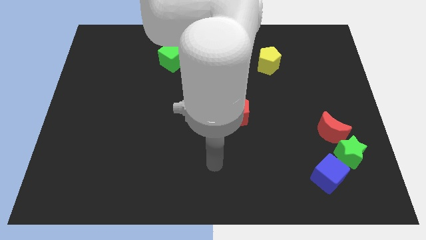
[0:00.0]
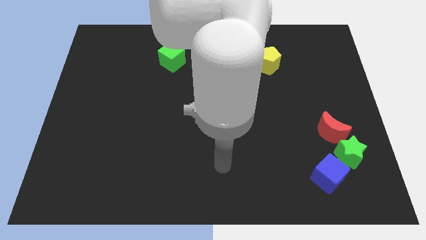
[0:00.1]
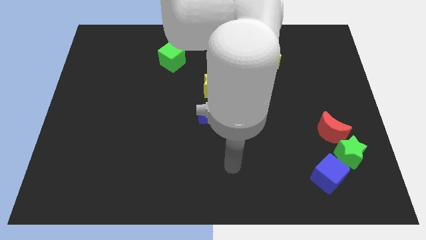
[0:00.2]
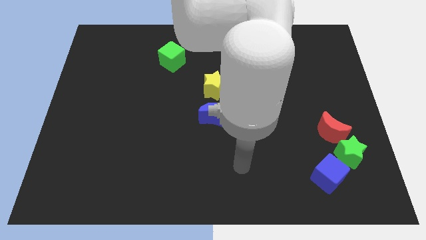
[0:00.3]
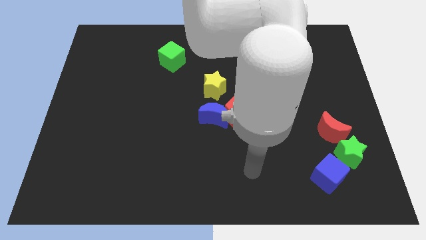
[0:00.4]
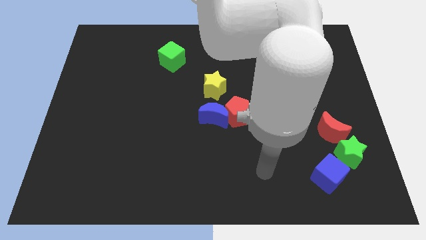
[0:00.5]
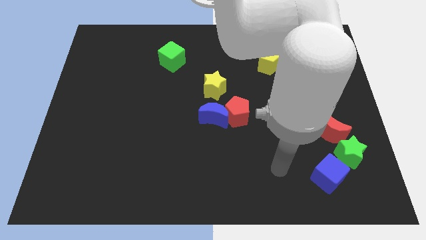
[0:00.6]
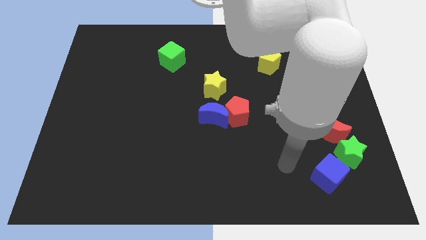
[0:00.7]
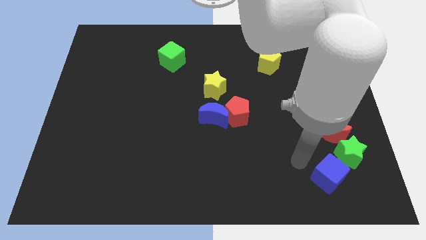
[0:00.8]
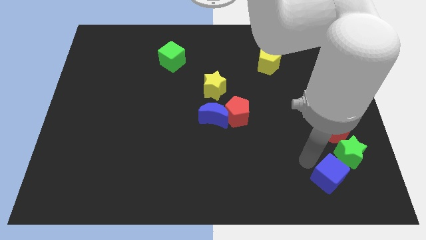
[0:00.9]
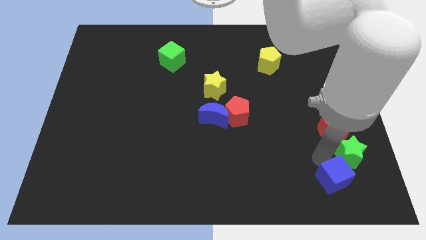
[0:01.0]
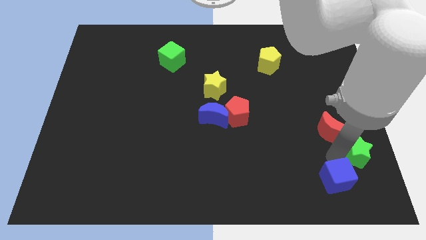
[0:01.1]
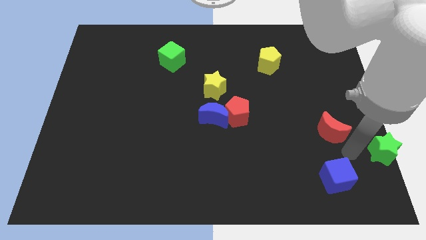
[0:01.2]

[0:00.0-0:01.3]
move the red moon away from the green star

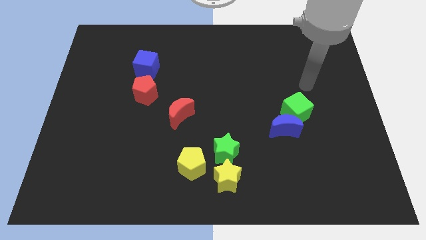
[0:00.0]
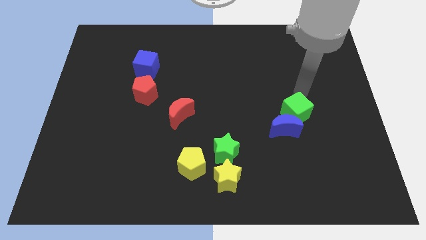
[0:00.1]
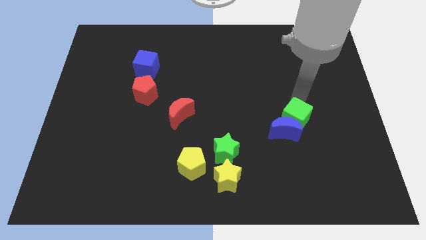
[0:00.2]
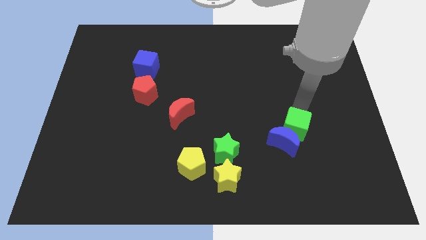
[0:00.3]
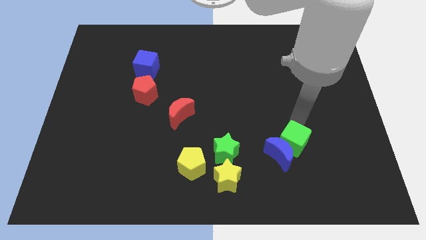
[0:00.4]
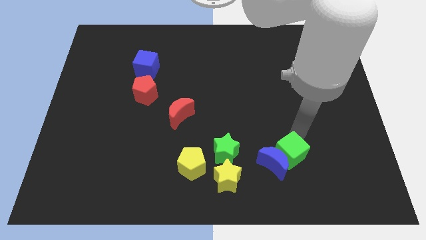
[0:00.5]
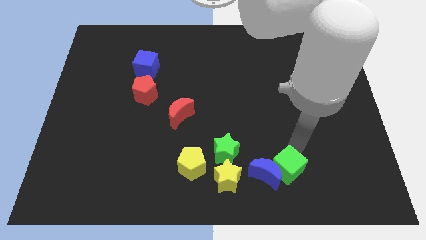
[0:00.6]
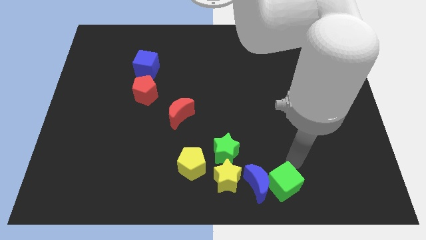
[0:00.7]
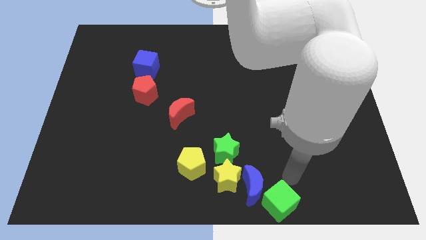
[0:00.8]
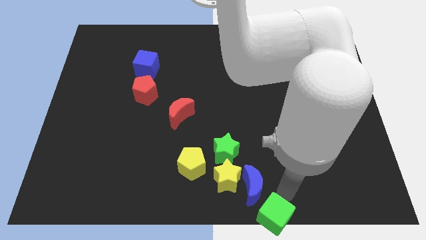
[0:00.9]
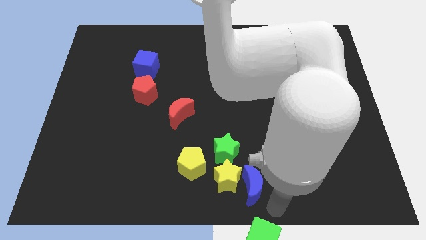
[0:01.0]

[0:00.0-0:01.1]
pull the blue moon apart from the green cube

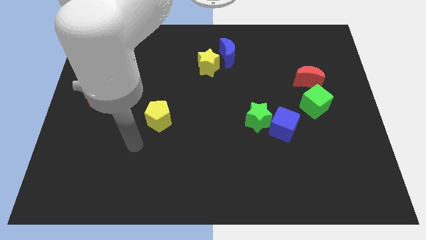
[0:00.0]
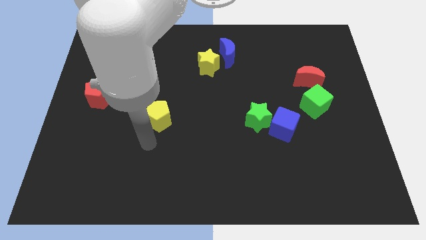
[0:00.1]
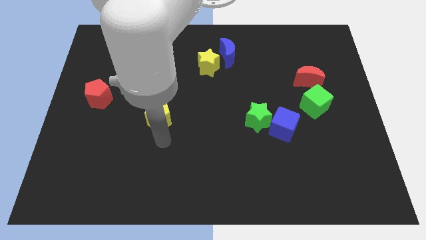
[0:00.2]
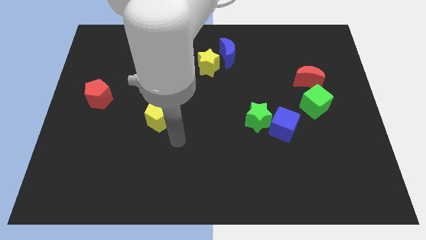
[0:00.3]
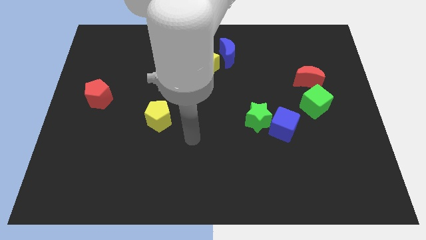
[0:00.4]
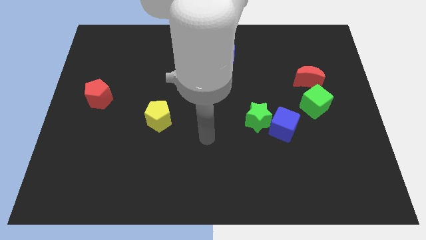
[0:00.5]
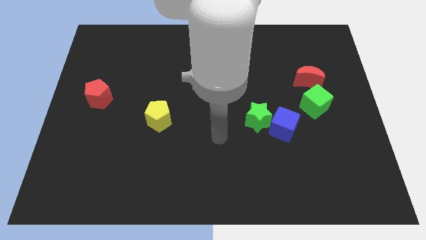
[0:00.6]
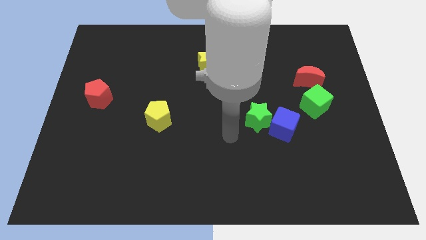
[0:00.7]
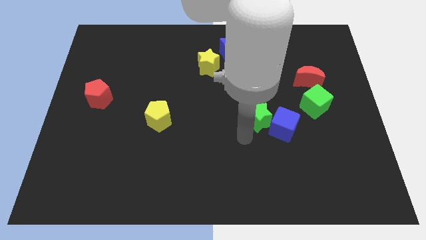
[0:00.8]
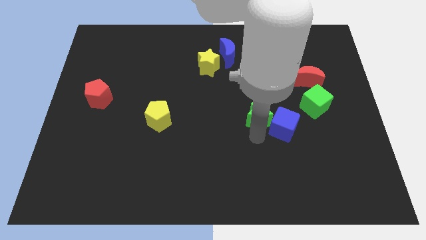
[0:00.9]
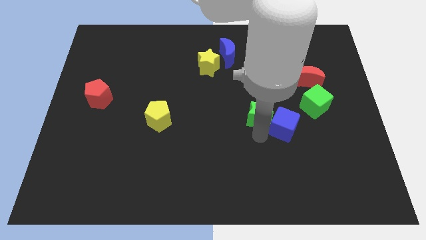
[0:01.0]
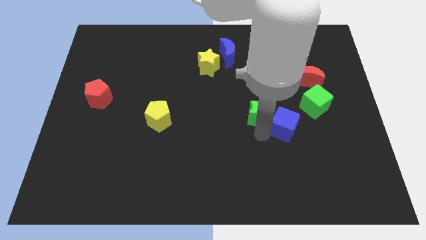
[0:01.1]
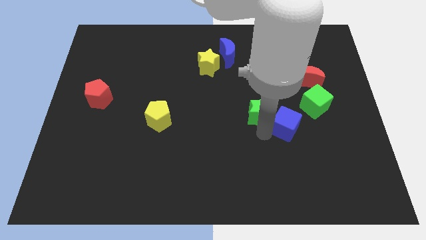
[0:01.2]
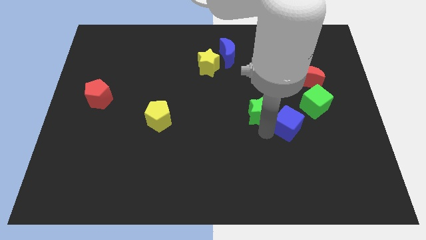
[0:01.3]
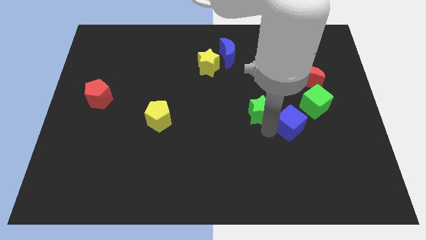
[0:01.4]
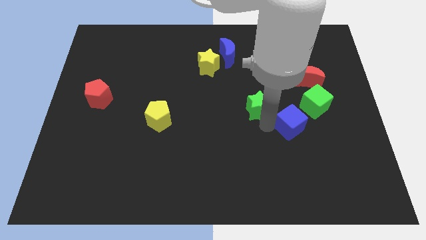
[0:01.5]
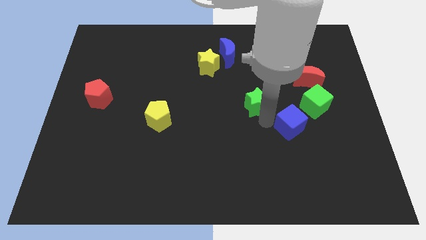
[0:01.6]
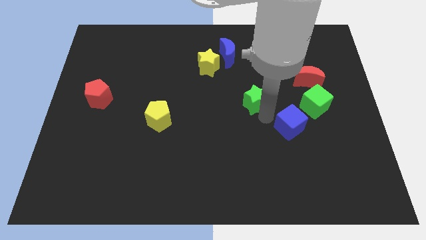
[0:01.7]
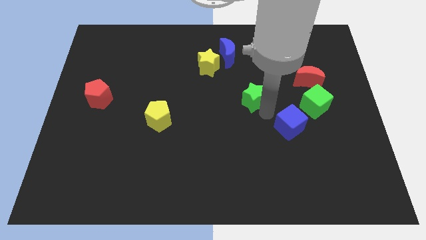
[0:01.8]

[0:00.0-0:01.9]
separate the blue cube from the green star

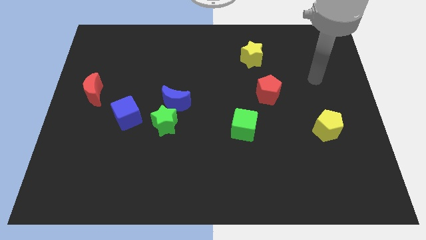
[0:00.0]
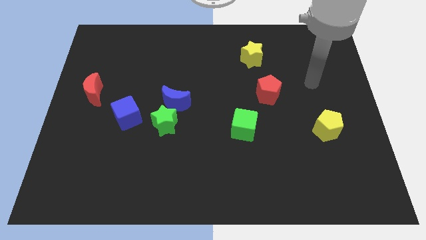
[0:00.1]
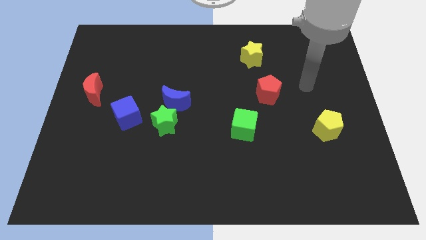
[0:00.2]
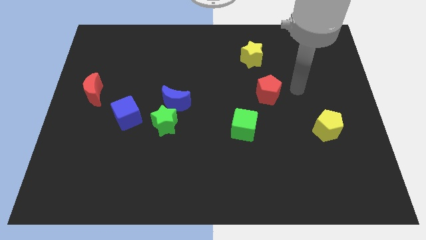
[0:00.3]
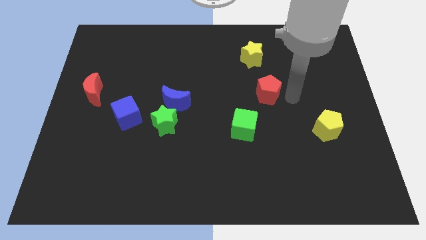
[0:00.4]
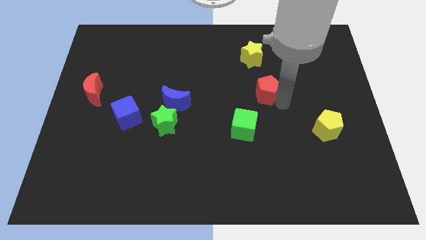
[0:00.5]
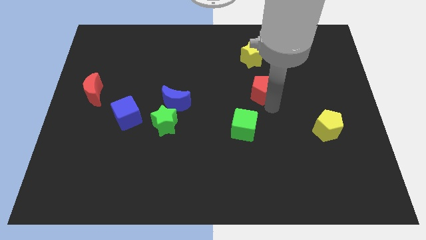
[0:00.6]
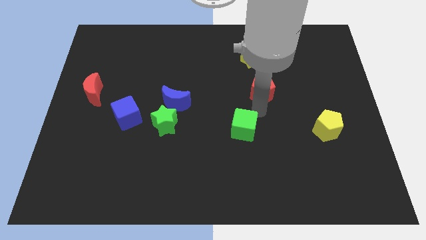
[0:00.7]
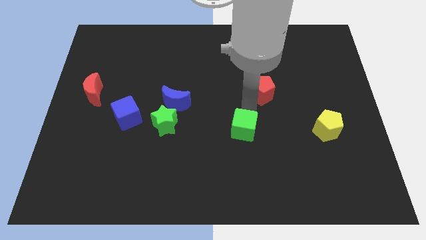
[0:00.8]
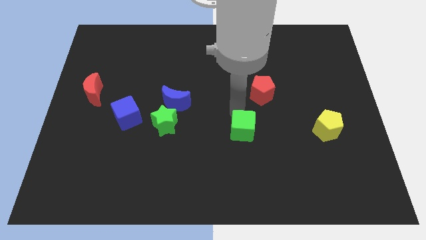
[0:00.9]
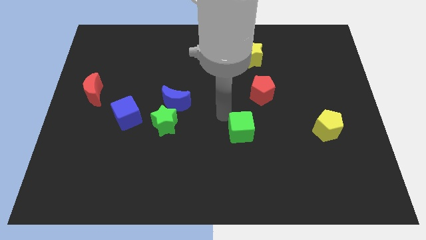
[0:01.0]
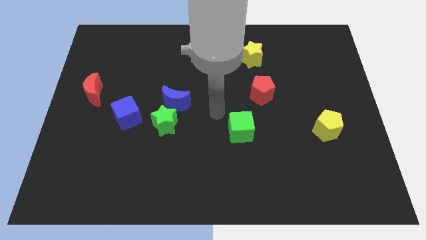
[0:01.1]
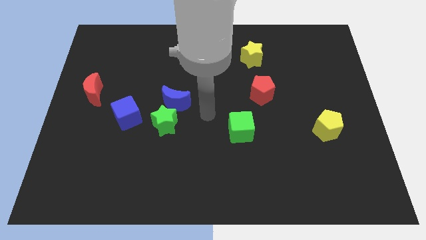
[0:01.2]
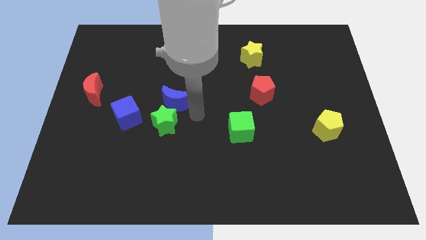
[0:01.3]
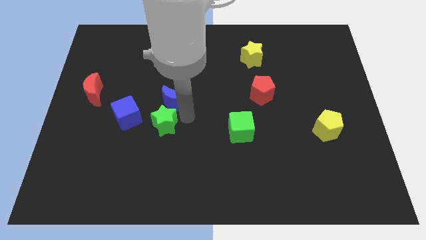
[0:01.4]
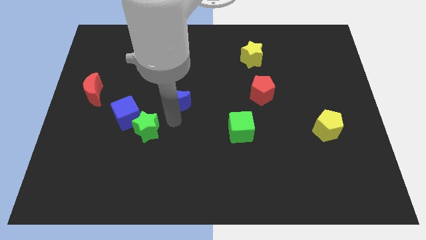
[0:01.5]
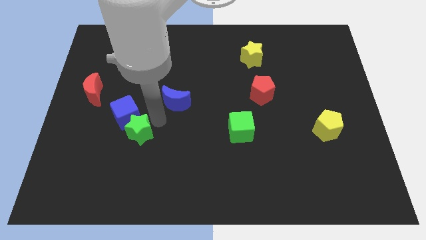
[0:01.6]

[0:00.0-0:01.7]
pull the blue moon apart from the green star

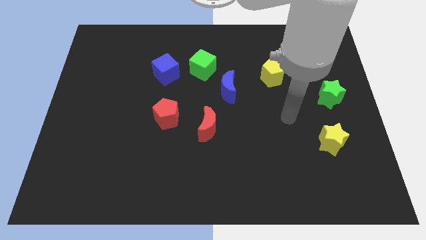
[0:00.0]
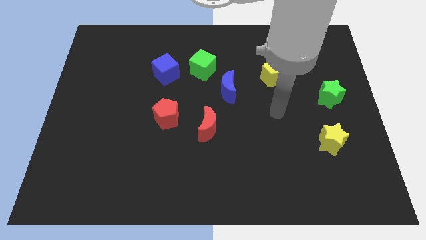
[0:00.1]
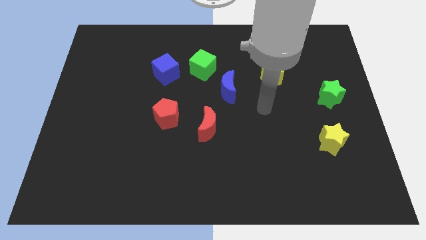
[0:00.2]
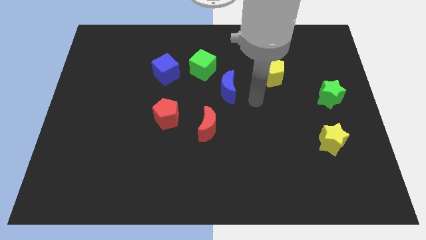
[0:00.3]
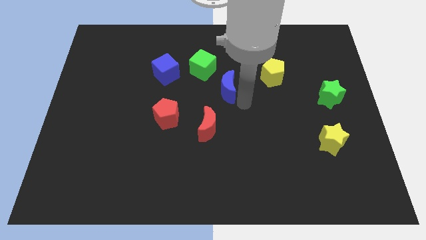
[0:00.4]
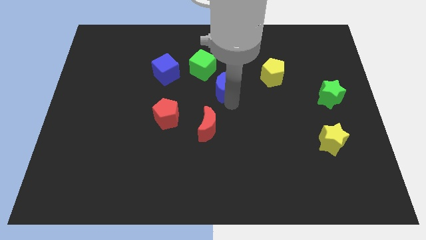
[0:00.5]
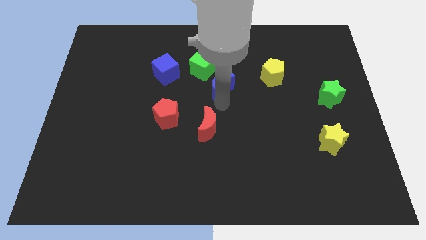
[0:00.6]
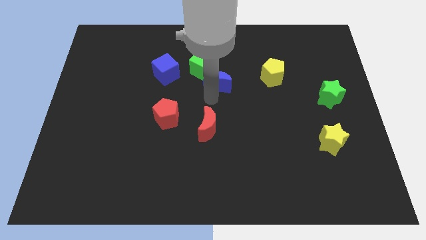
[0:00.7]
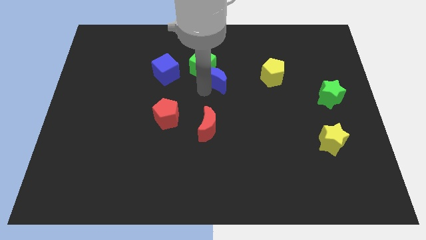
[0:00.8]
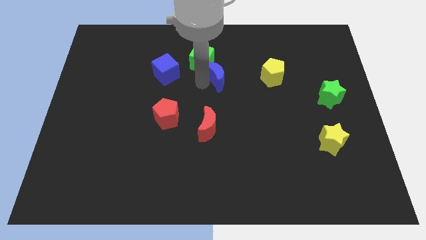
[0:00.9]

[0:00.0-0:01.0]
pull the blue cube apart from the green cube

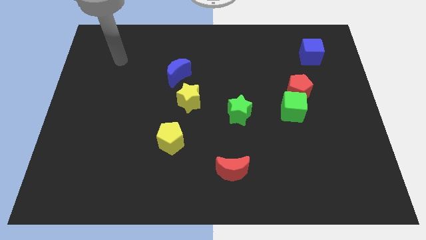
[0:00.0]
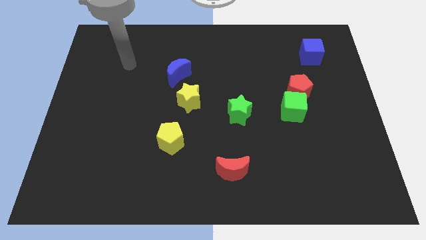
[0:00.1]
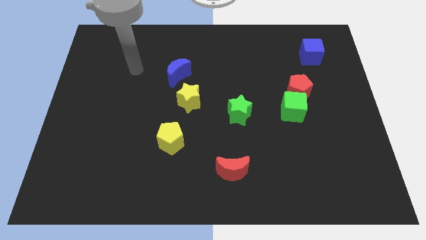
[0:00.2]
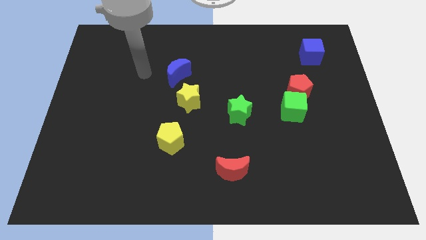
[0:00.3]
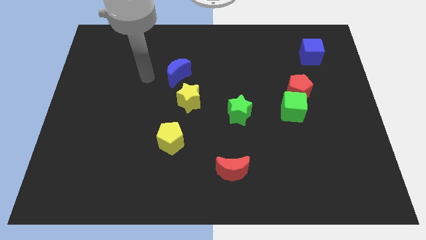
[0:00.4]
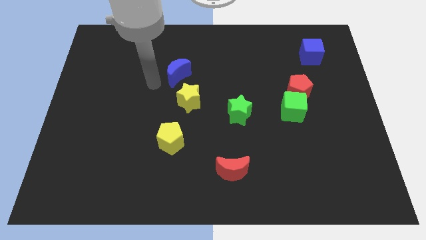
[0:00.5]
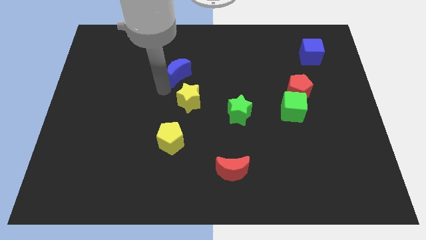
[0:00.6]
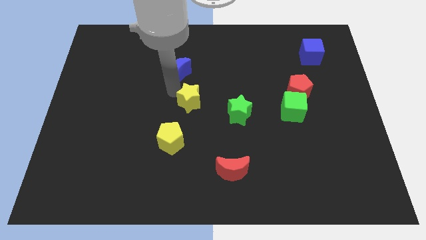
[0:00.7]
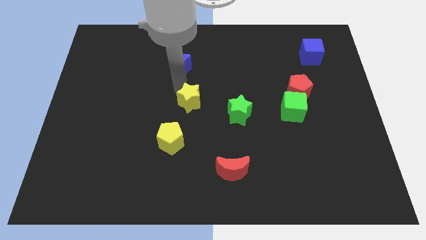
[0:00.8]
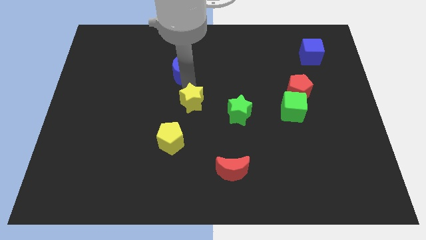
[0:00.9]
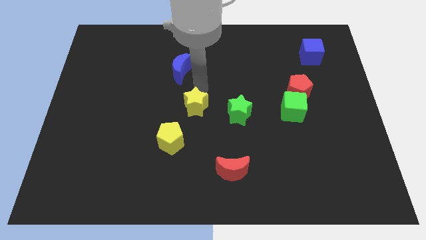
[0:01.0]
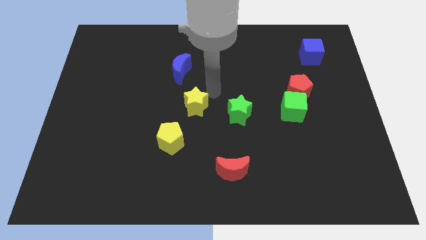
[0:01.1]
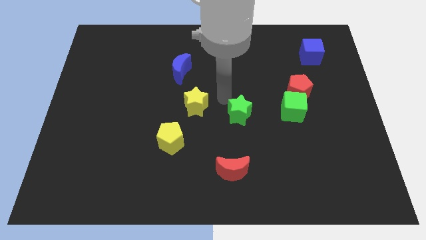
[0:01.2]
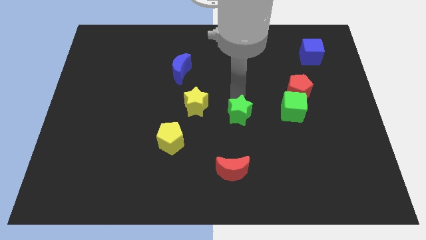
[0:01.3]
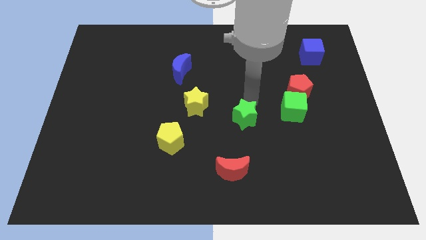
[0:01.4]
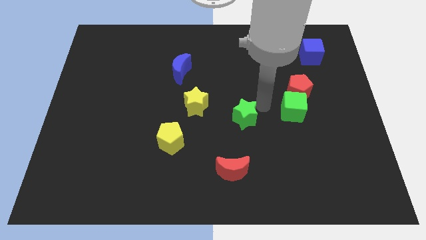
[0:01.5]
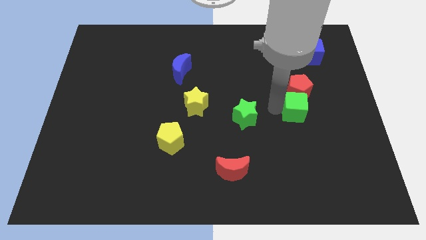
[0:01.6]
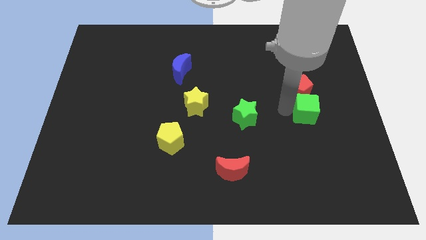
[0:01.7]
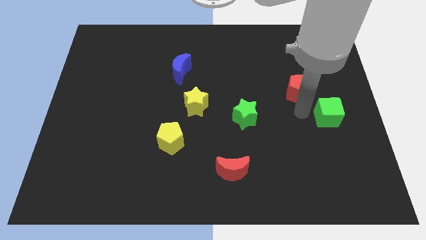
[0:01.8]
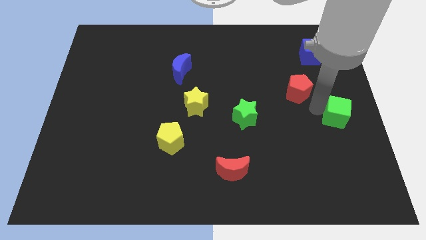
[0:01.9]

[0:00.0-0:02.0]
separate the red pentagon from the green cube

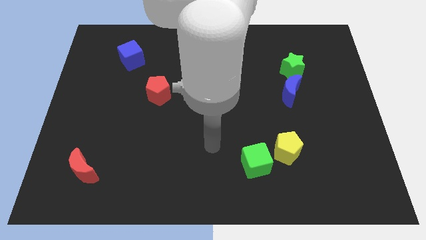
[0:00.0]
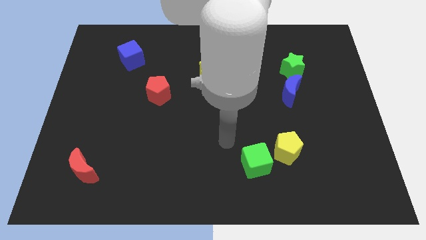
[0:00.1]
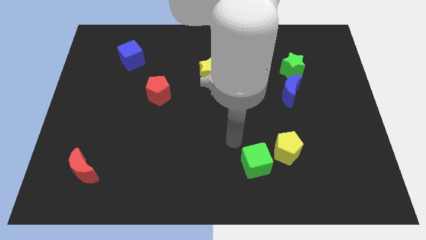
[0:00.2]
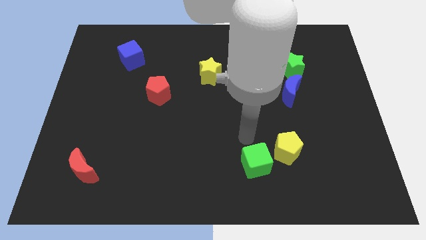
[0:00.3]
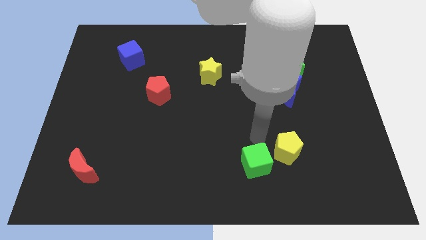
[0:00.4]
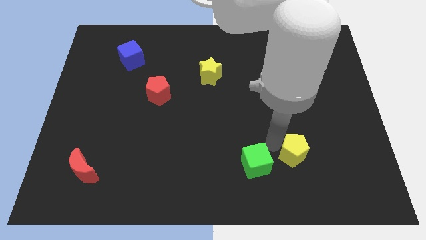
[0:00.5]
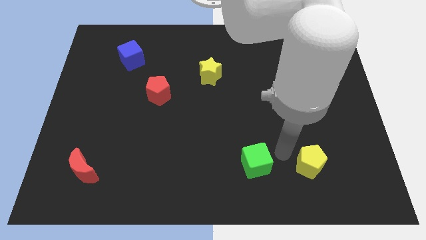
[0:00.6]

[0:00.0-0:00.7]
pull the green cube apart from the yellow pentagon
